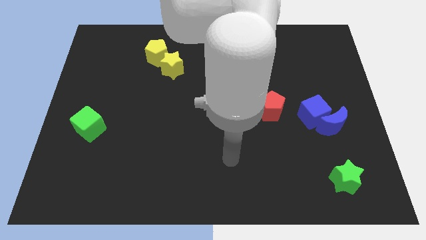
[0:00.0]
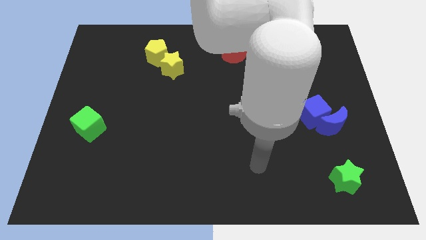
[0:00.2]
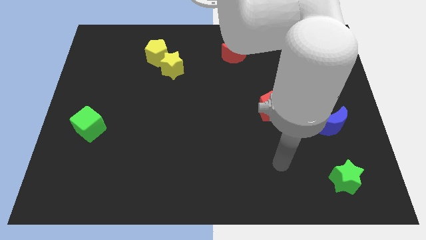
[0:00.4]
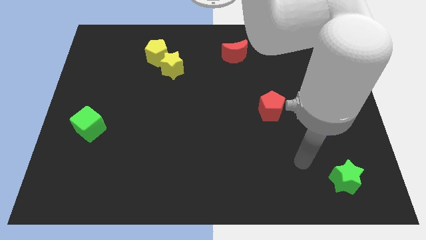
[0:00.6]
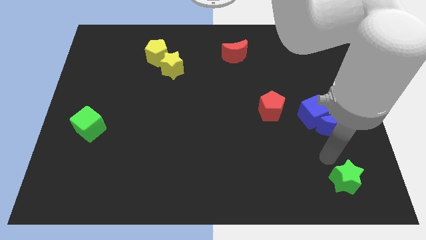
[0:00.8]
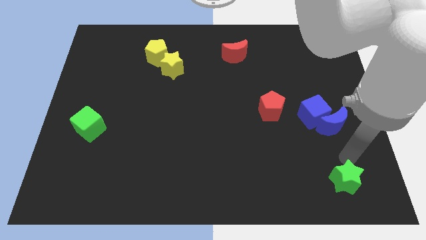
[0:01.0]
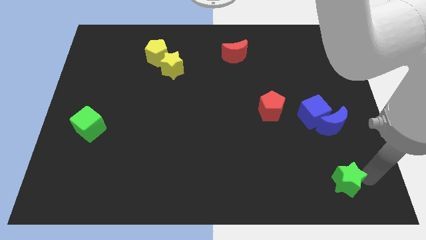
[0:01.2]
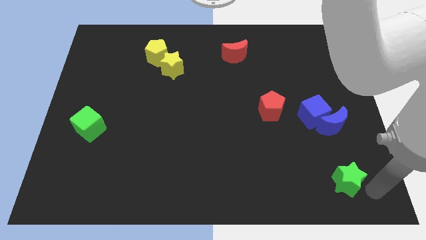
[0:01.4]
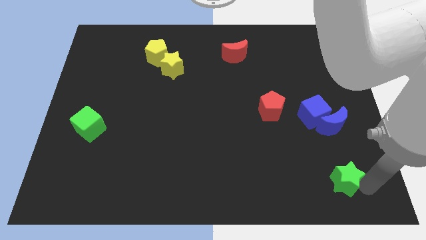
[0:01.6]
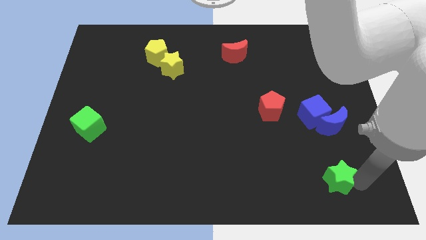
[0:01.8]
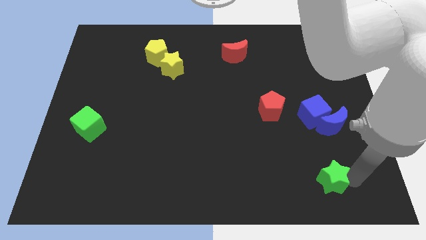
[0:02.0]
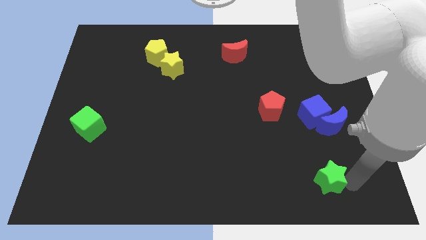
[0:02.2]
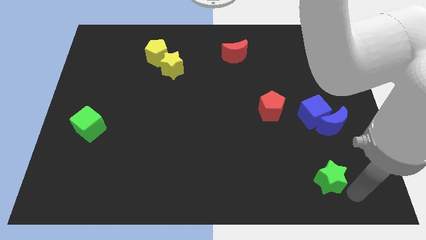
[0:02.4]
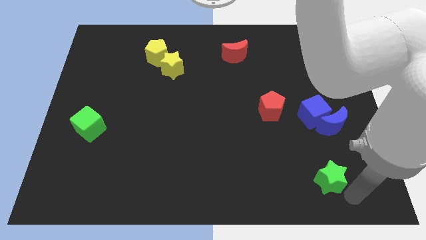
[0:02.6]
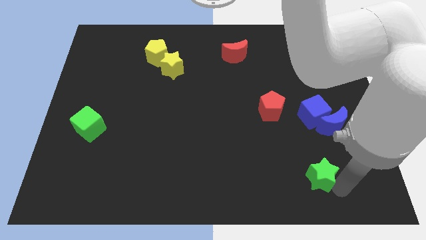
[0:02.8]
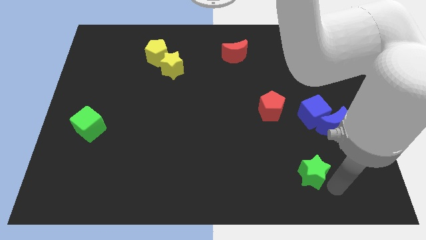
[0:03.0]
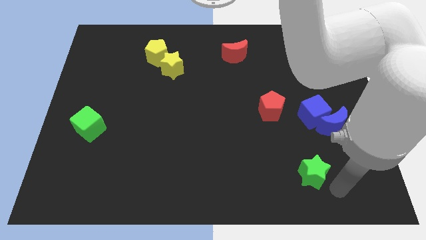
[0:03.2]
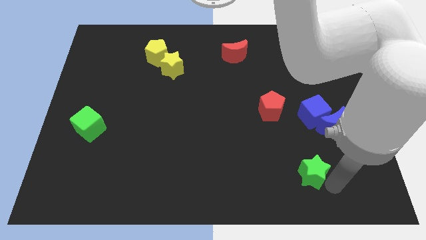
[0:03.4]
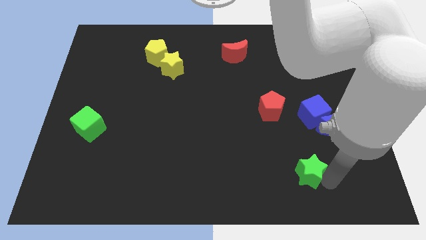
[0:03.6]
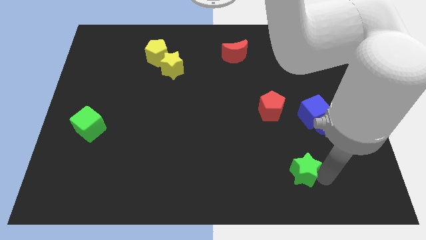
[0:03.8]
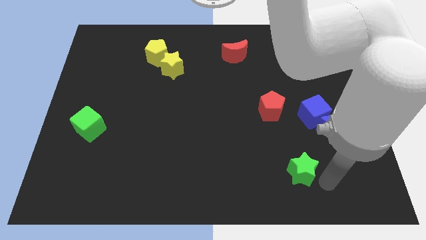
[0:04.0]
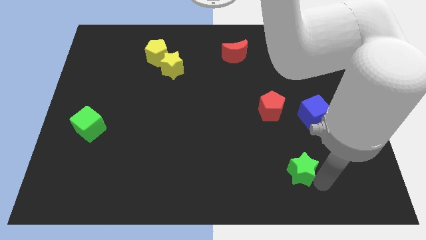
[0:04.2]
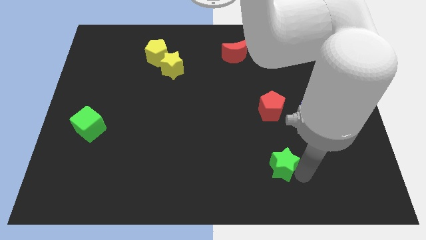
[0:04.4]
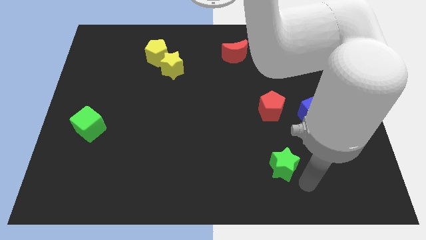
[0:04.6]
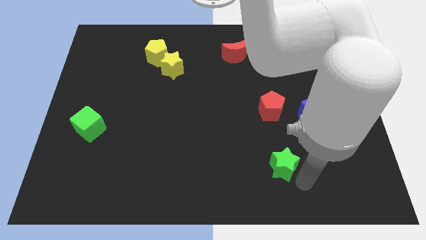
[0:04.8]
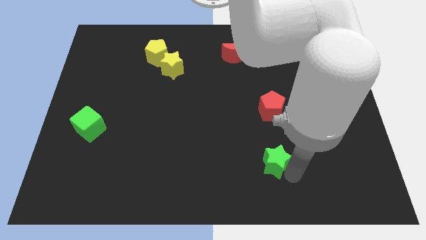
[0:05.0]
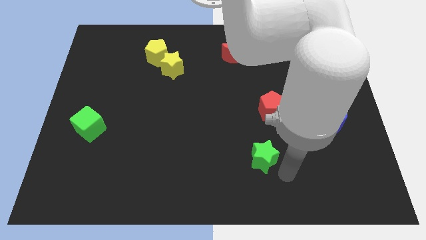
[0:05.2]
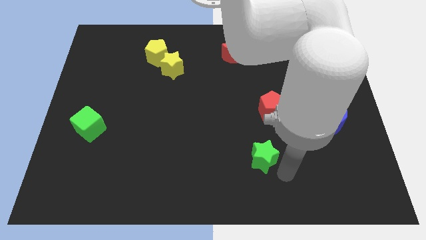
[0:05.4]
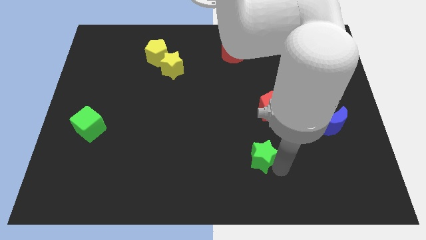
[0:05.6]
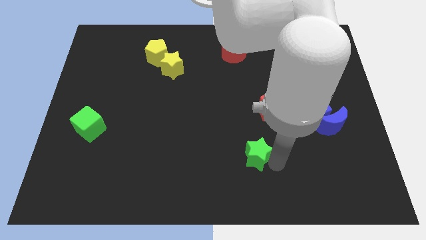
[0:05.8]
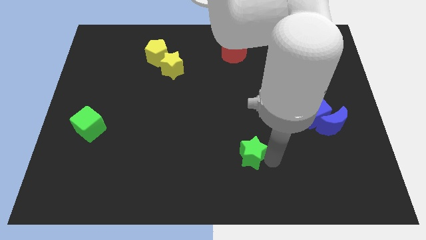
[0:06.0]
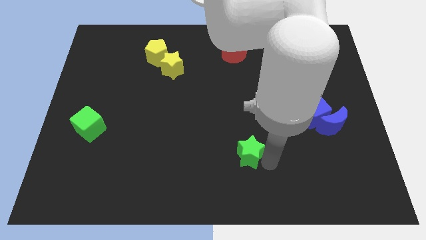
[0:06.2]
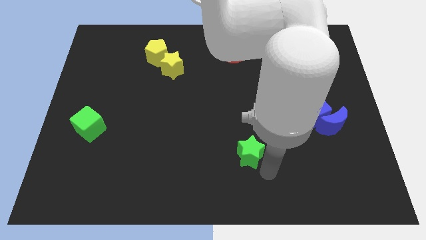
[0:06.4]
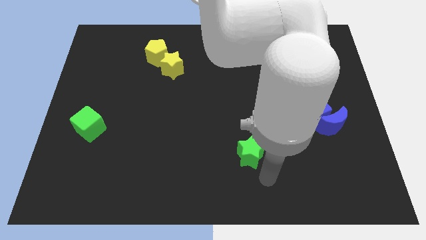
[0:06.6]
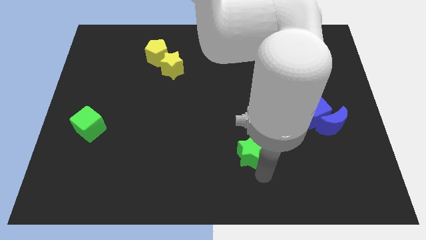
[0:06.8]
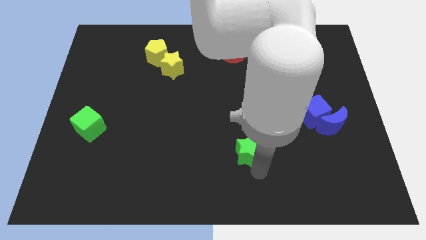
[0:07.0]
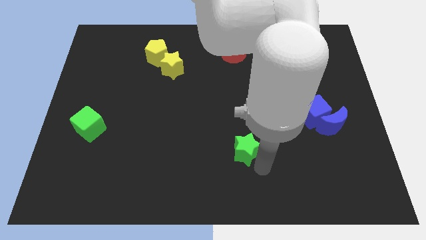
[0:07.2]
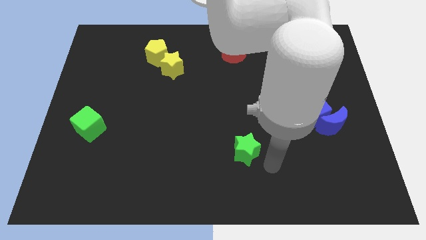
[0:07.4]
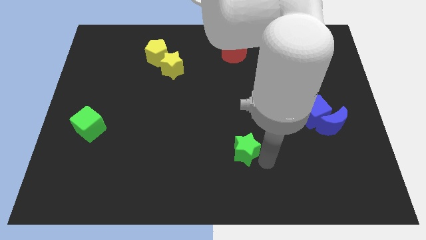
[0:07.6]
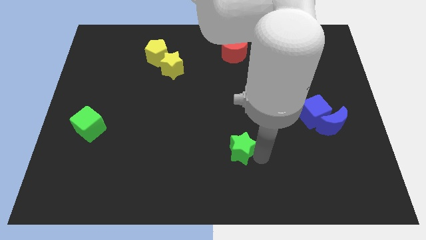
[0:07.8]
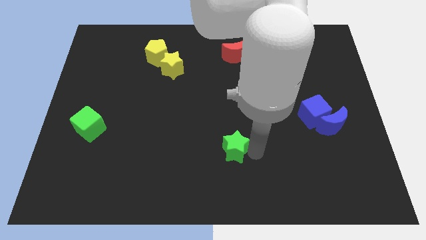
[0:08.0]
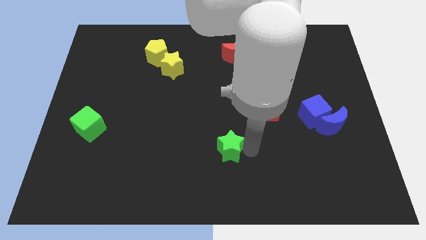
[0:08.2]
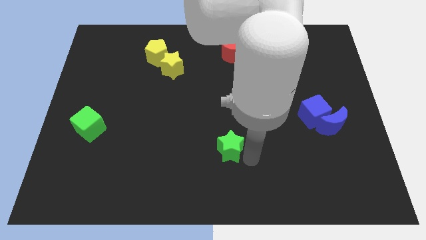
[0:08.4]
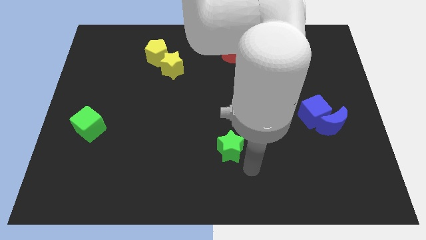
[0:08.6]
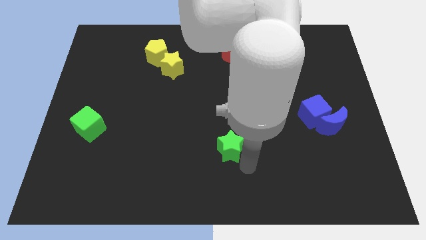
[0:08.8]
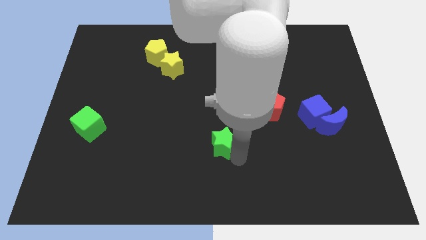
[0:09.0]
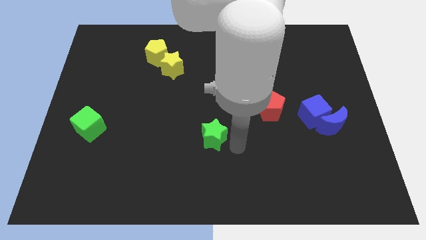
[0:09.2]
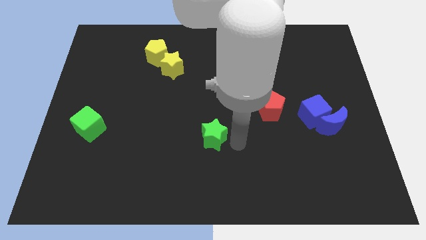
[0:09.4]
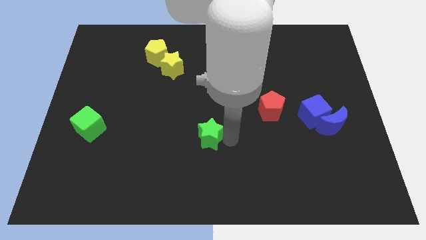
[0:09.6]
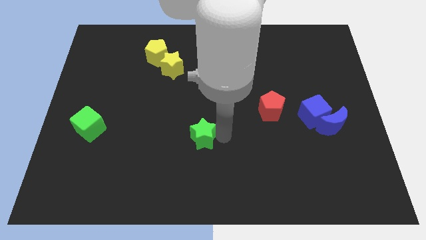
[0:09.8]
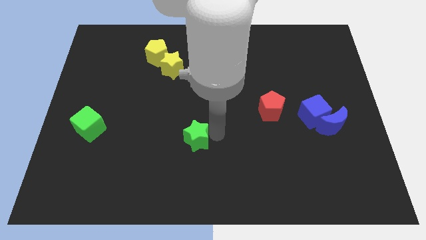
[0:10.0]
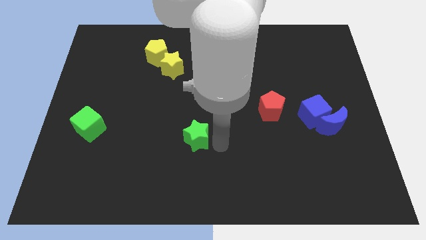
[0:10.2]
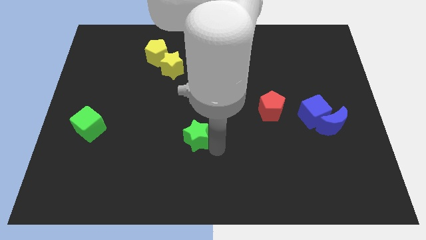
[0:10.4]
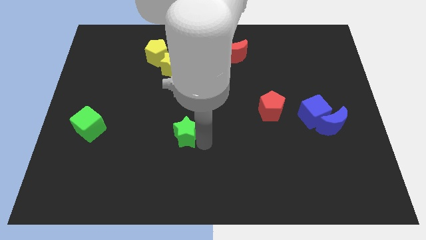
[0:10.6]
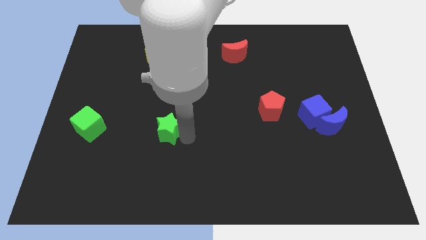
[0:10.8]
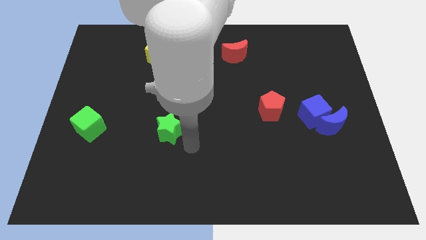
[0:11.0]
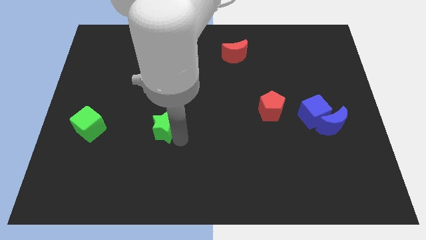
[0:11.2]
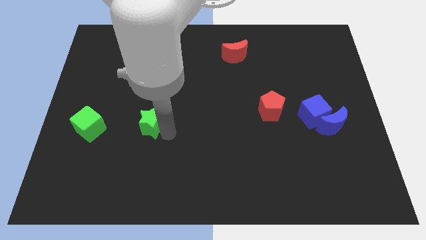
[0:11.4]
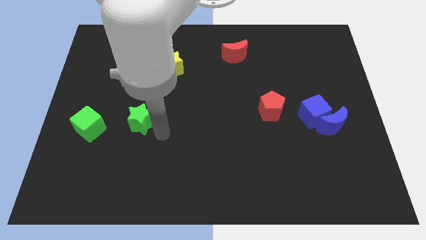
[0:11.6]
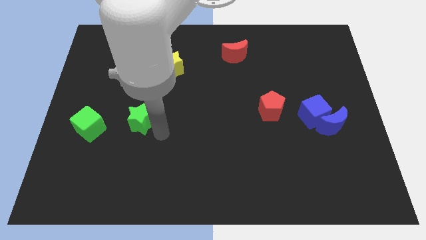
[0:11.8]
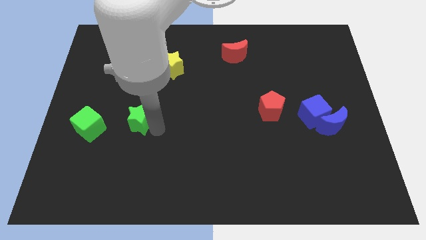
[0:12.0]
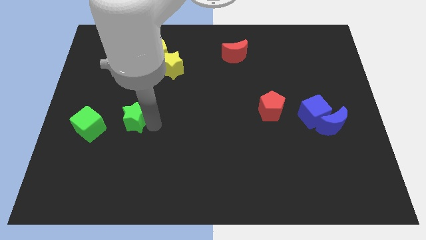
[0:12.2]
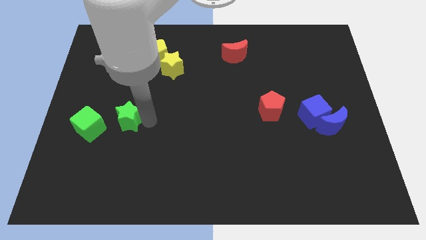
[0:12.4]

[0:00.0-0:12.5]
slide the green star to the top right of the green cube

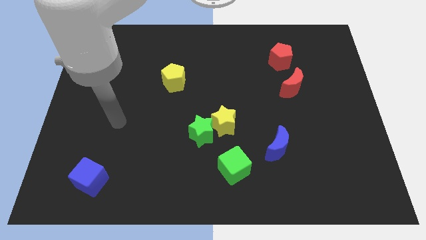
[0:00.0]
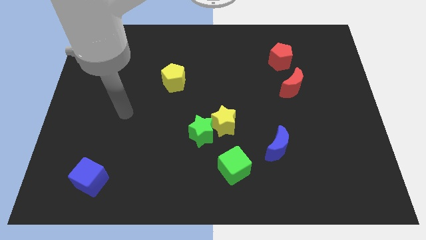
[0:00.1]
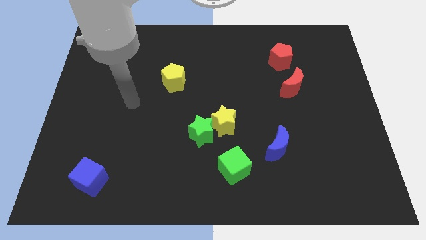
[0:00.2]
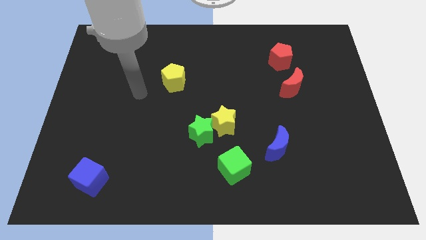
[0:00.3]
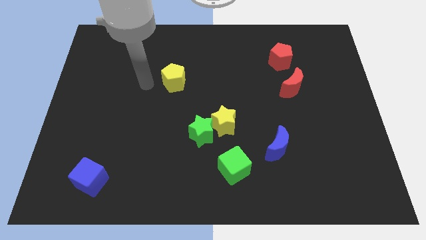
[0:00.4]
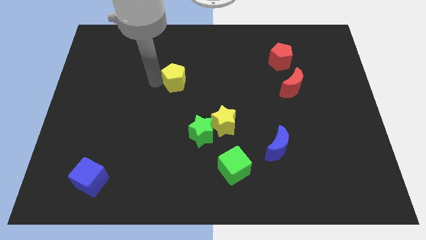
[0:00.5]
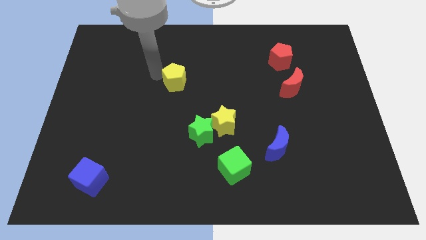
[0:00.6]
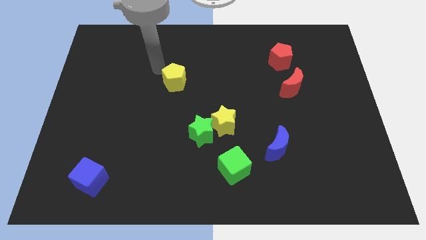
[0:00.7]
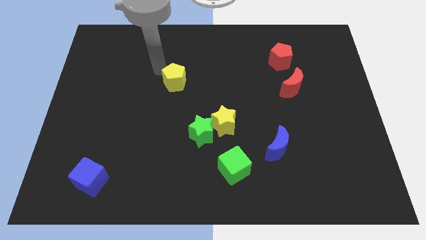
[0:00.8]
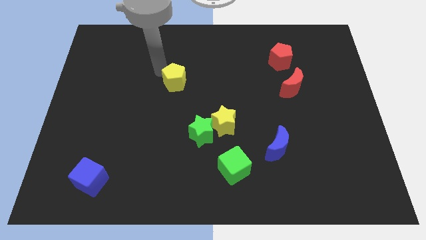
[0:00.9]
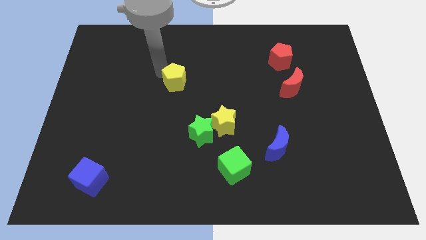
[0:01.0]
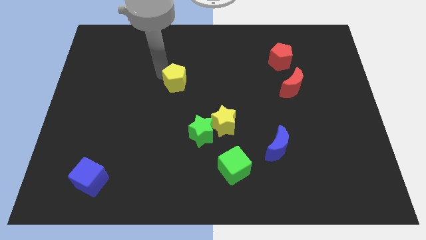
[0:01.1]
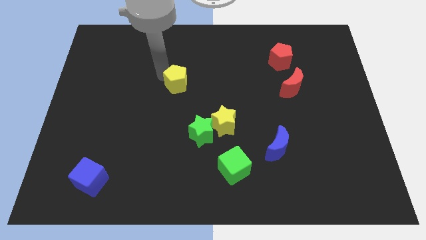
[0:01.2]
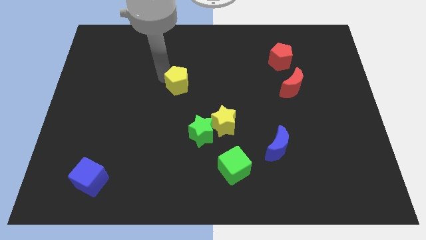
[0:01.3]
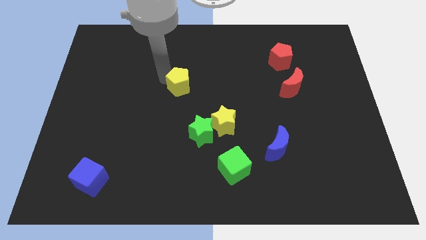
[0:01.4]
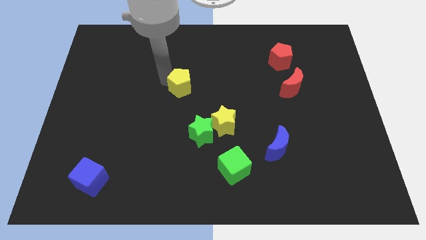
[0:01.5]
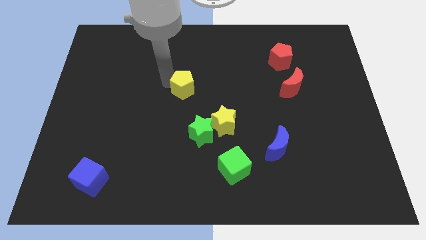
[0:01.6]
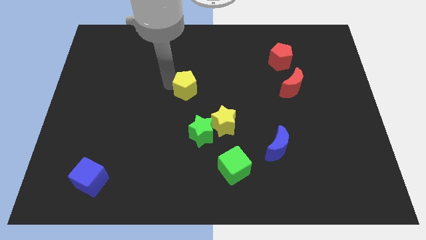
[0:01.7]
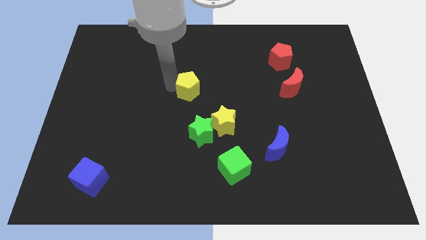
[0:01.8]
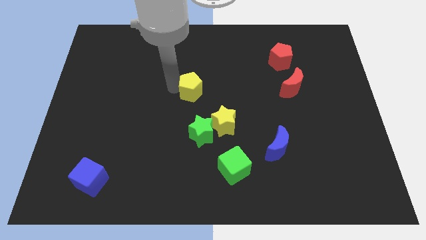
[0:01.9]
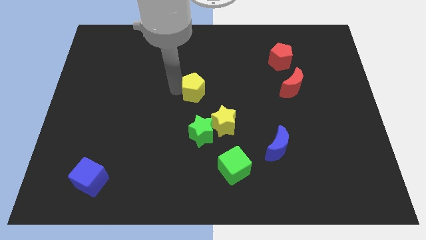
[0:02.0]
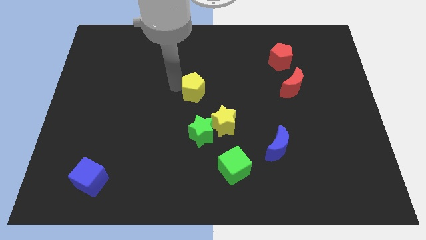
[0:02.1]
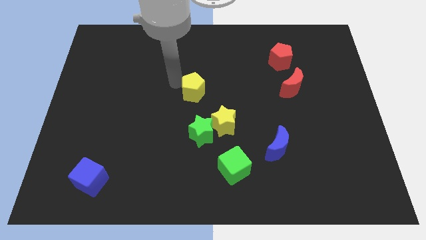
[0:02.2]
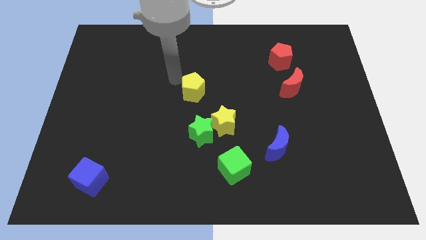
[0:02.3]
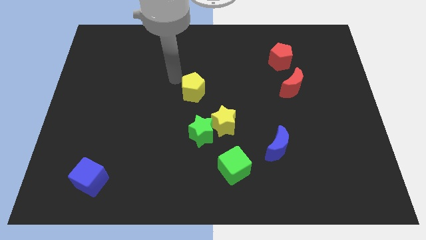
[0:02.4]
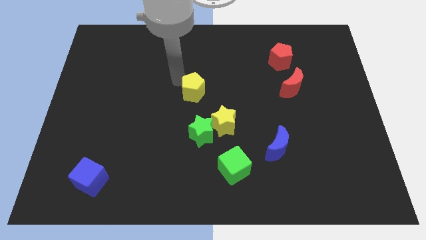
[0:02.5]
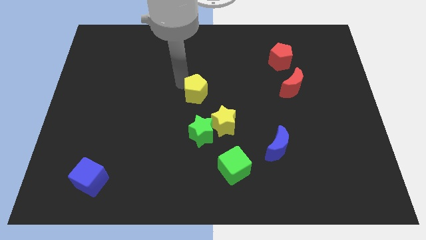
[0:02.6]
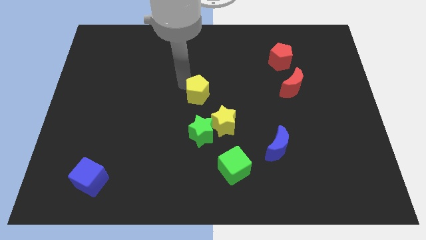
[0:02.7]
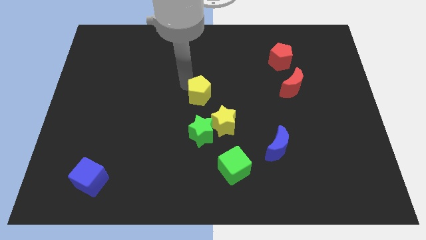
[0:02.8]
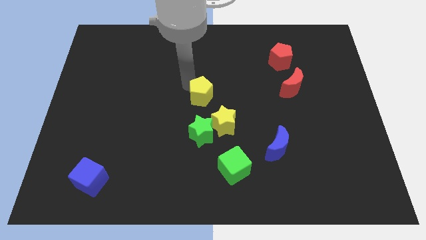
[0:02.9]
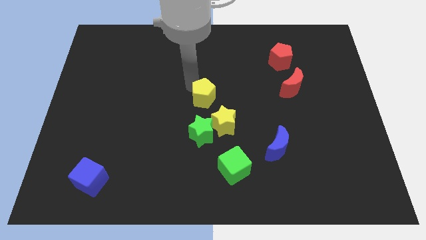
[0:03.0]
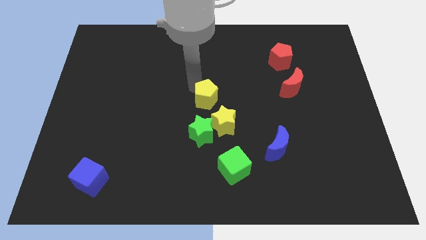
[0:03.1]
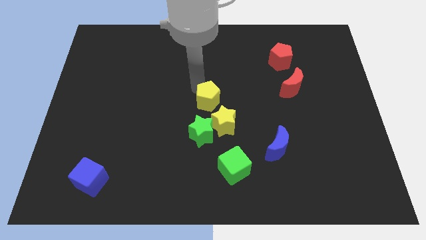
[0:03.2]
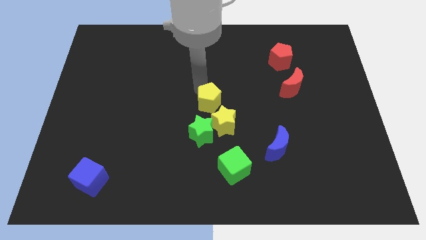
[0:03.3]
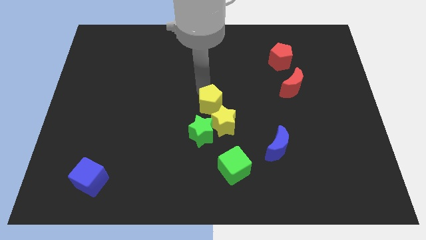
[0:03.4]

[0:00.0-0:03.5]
slide the yellow pentagon to the top right of the green star
